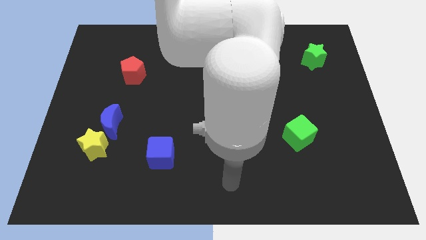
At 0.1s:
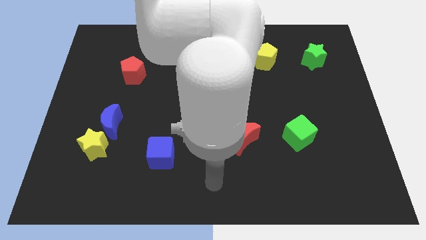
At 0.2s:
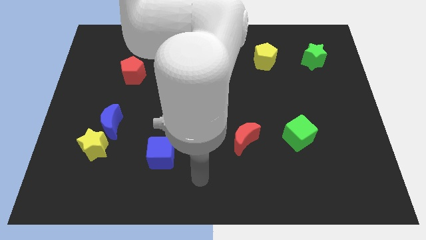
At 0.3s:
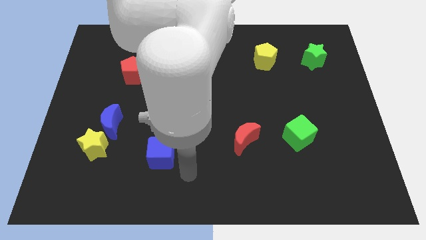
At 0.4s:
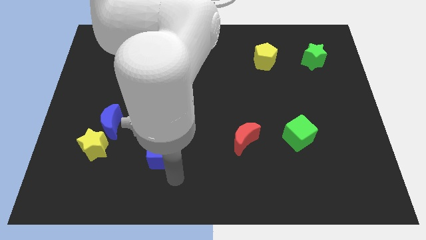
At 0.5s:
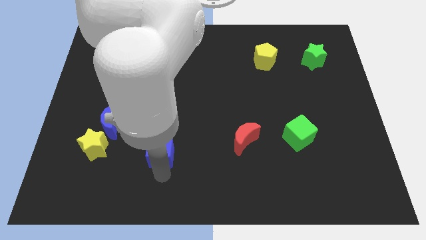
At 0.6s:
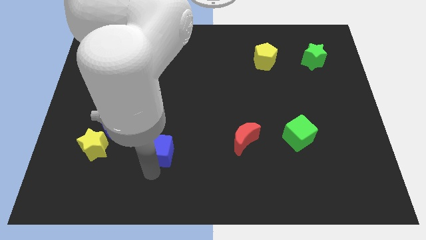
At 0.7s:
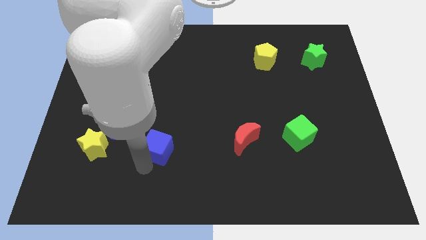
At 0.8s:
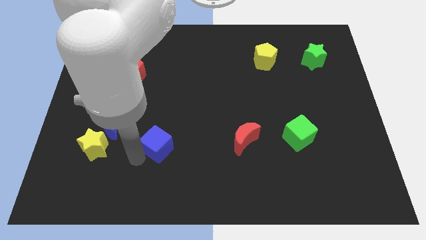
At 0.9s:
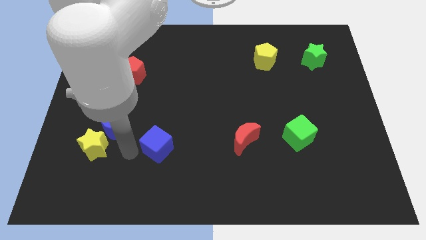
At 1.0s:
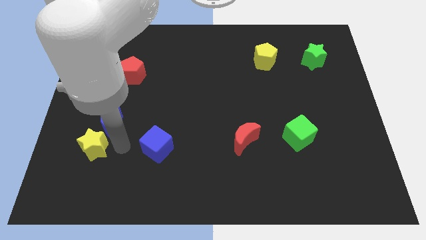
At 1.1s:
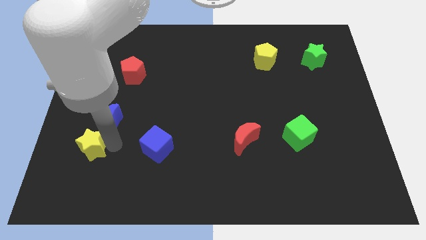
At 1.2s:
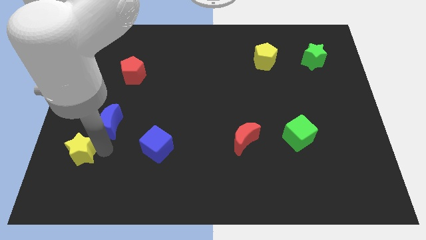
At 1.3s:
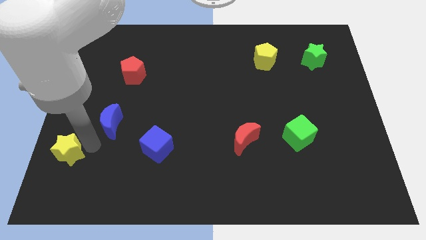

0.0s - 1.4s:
separate the blue moon from the yellow star

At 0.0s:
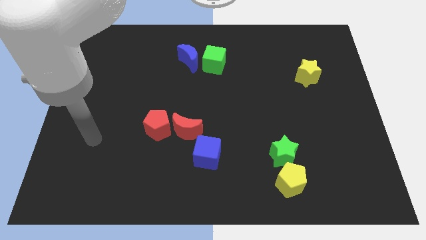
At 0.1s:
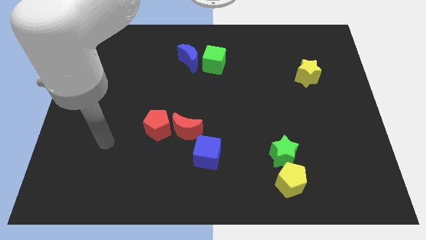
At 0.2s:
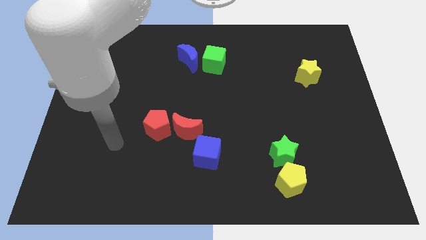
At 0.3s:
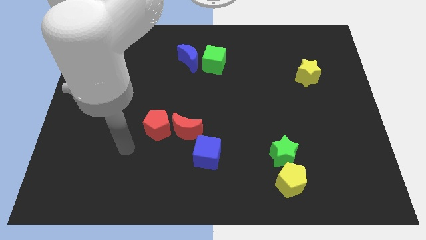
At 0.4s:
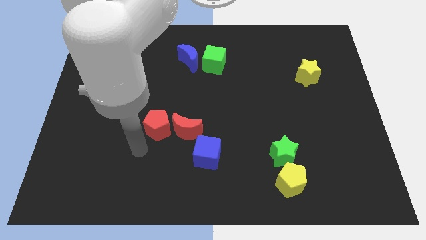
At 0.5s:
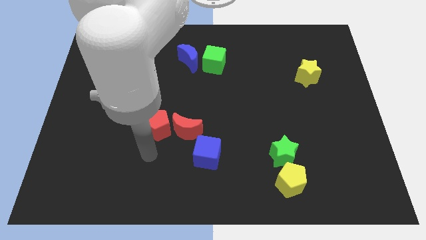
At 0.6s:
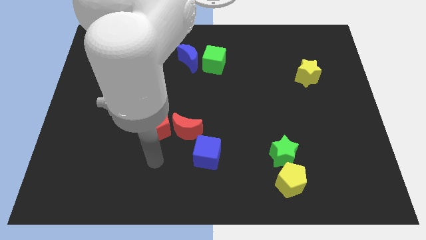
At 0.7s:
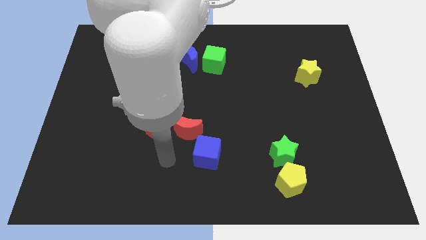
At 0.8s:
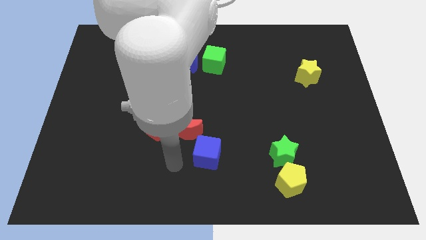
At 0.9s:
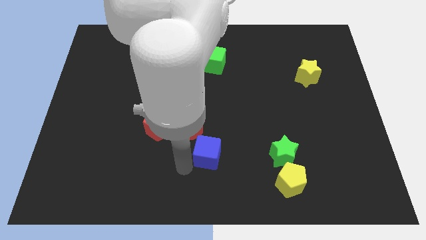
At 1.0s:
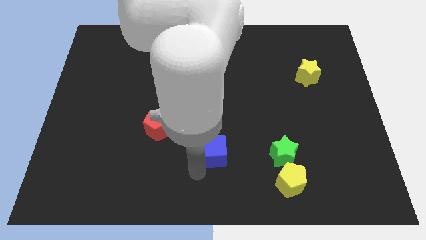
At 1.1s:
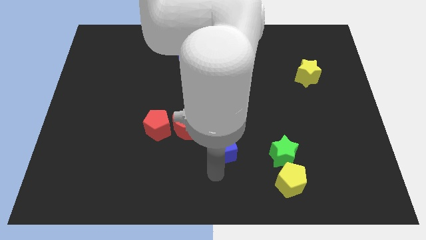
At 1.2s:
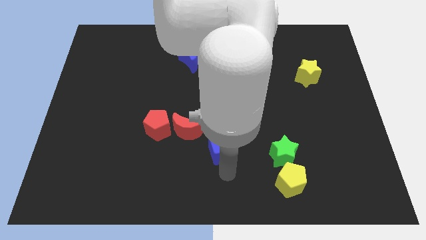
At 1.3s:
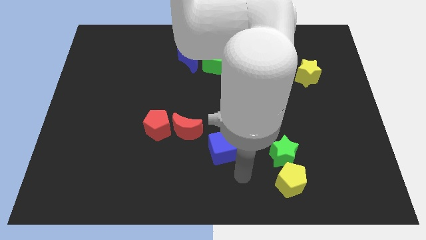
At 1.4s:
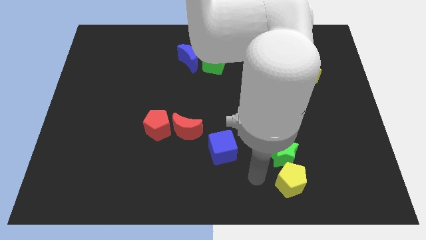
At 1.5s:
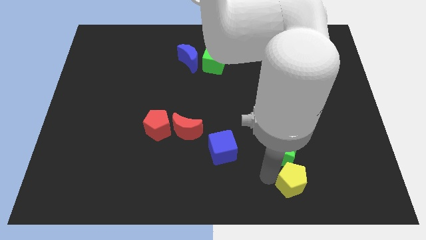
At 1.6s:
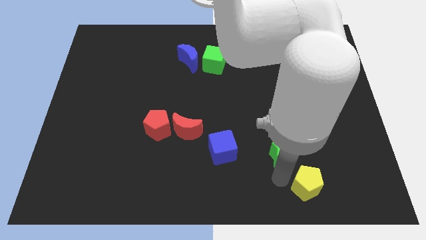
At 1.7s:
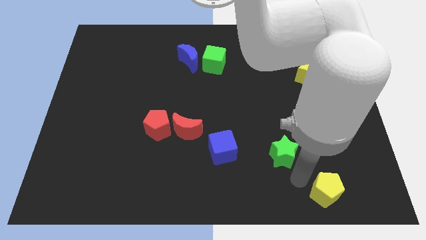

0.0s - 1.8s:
move the green star away from the yellow pentagon

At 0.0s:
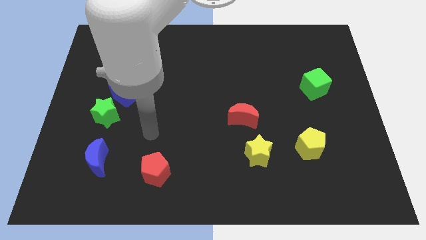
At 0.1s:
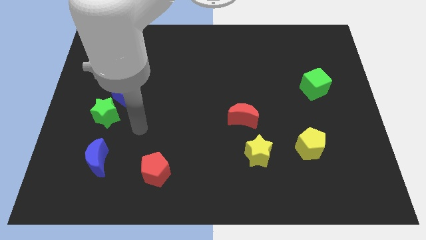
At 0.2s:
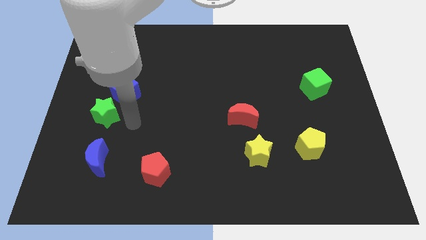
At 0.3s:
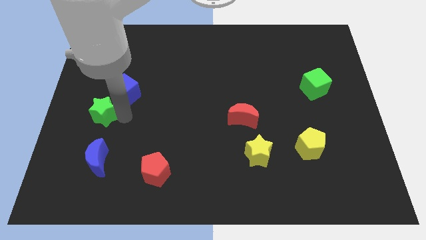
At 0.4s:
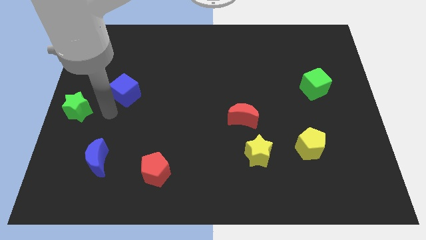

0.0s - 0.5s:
move the blue cube away from the green star

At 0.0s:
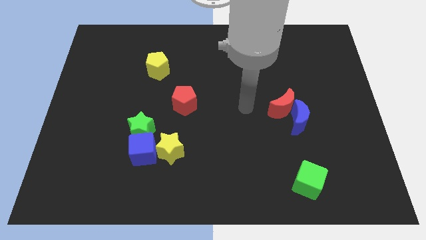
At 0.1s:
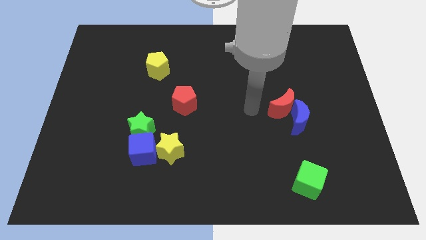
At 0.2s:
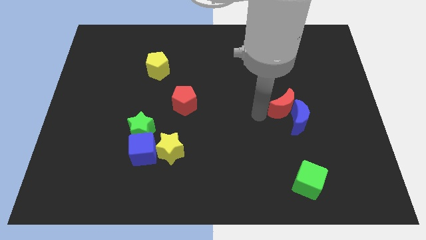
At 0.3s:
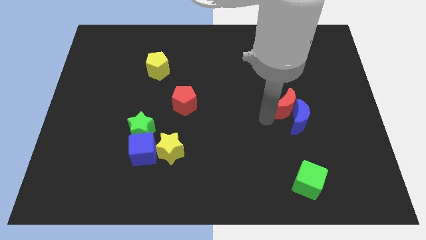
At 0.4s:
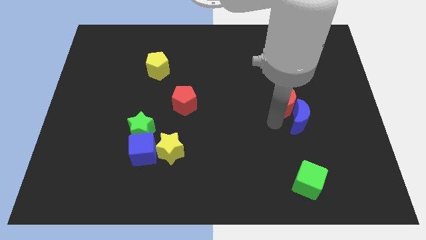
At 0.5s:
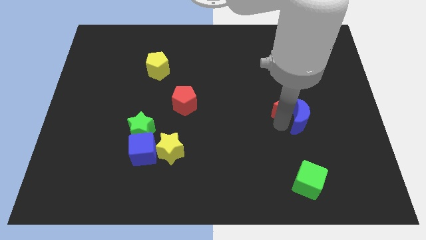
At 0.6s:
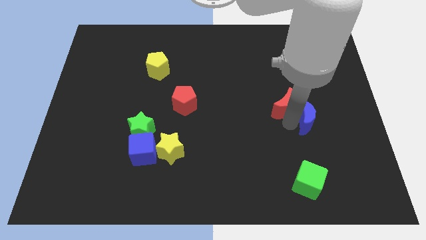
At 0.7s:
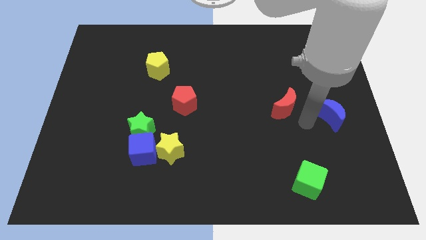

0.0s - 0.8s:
separate the red moon from the blue moon

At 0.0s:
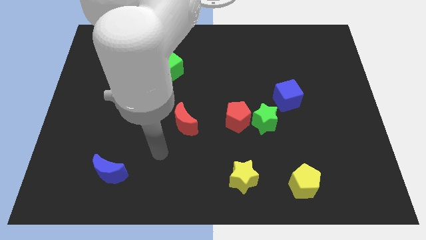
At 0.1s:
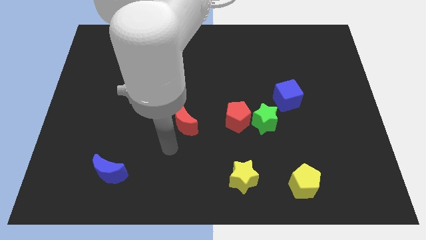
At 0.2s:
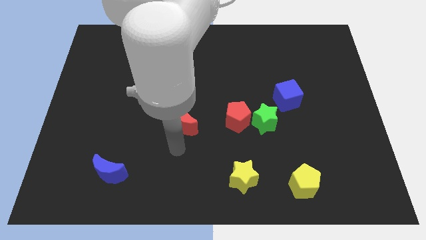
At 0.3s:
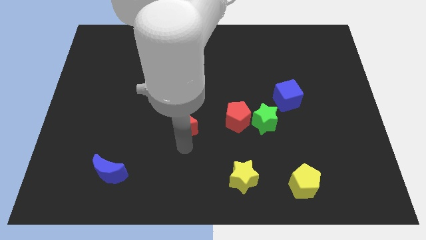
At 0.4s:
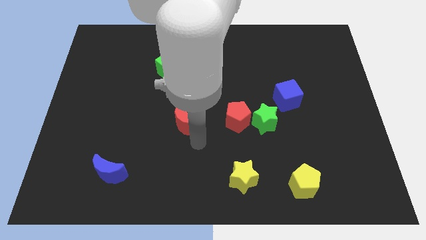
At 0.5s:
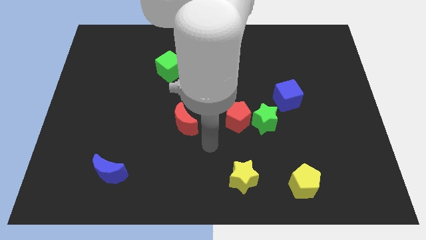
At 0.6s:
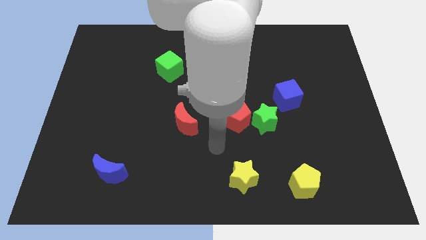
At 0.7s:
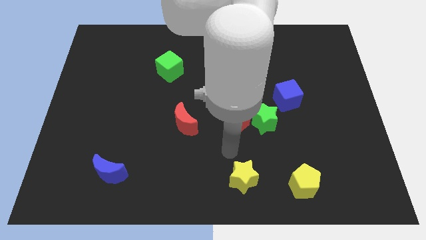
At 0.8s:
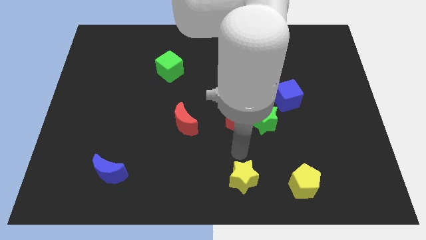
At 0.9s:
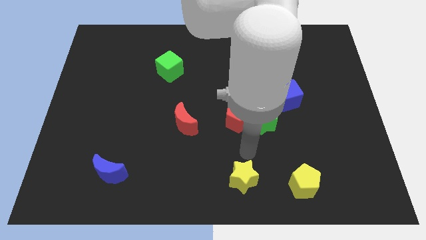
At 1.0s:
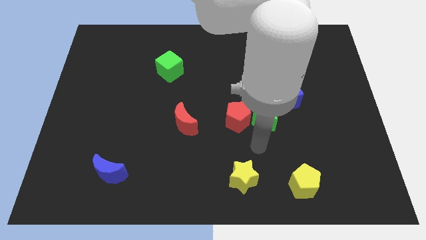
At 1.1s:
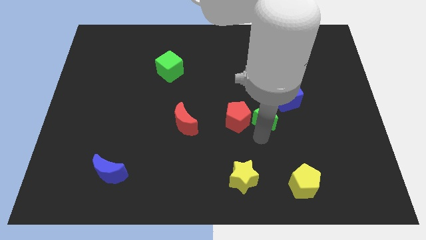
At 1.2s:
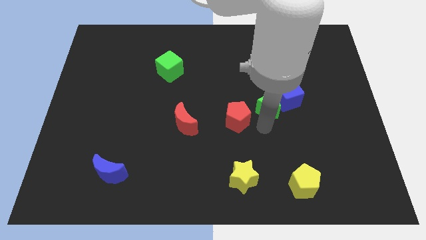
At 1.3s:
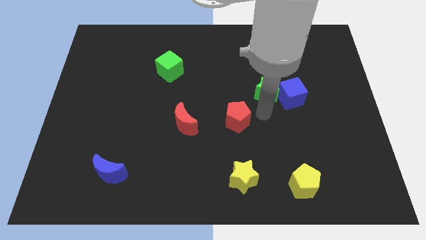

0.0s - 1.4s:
separate the red pentagon from the green star

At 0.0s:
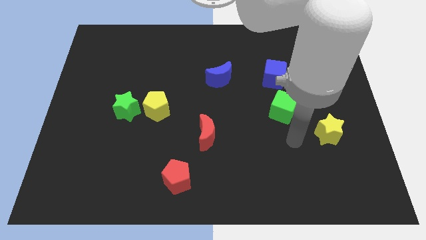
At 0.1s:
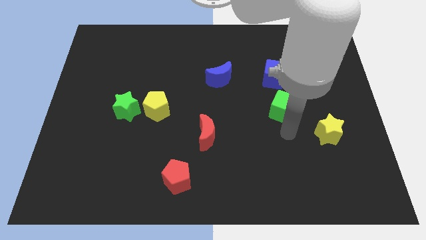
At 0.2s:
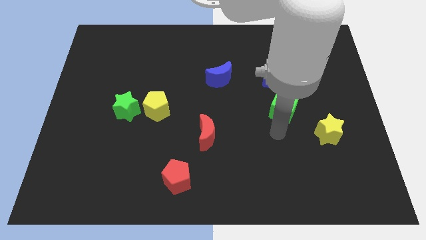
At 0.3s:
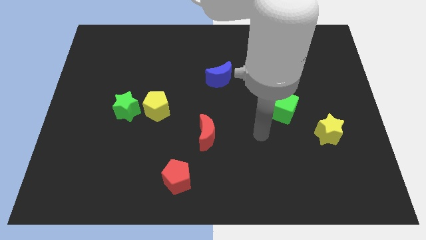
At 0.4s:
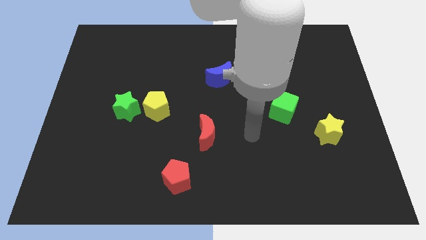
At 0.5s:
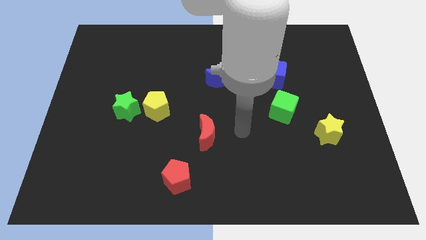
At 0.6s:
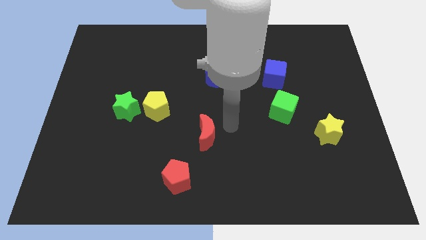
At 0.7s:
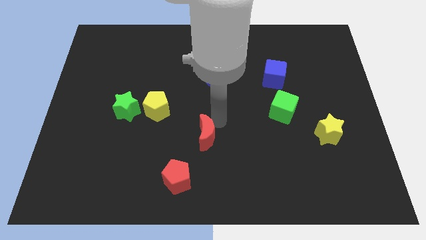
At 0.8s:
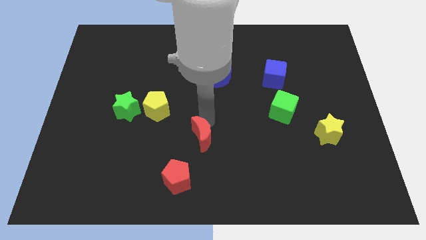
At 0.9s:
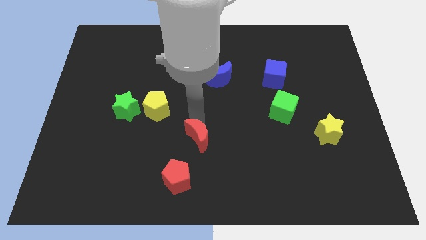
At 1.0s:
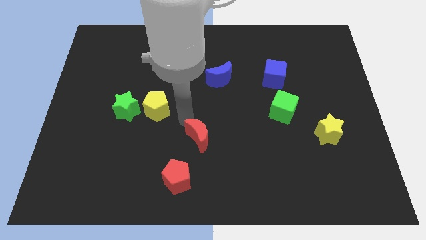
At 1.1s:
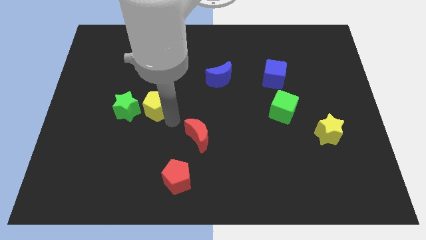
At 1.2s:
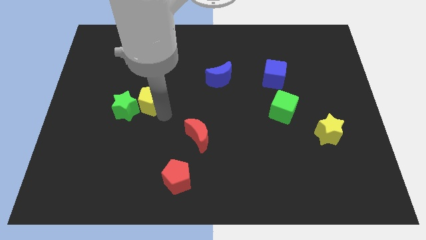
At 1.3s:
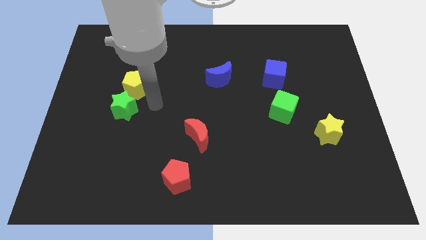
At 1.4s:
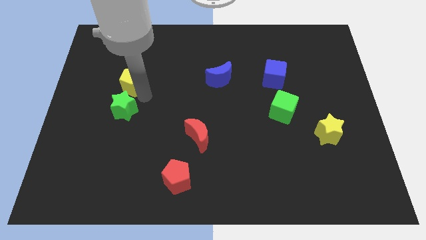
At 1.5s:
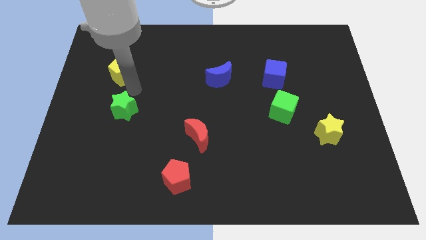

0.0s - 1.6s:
pull the green star apart from the yellow pentagon

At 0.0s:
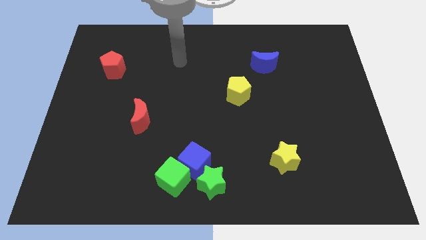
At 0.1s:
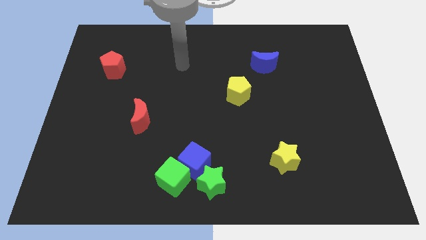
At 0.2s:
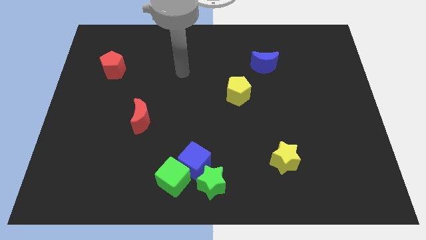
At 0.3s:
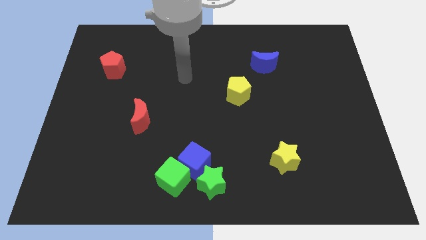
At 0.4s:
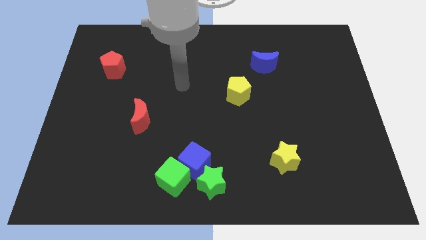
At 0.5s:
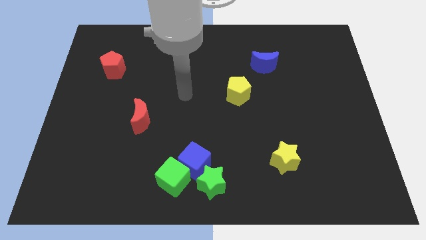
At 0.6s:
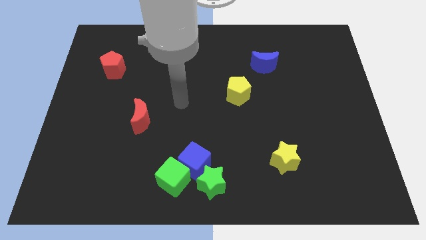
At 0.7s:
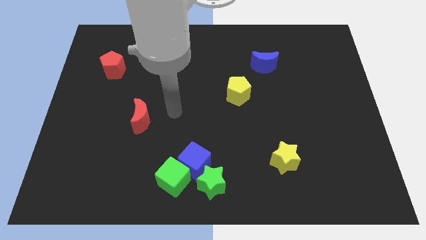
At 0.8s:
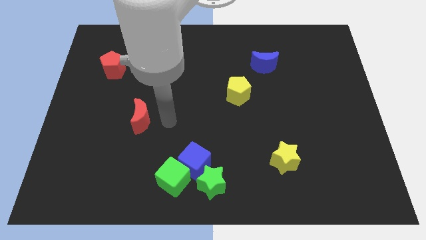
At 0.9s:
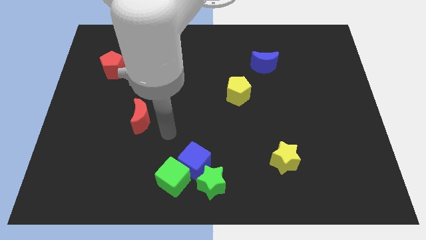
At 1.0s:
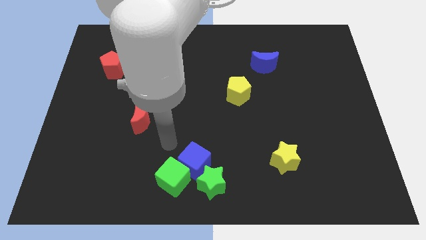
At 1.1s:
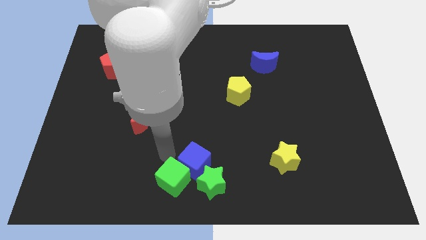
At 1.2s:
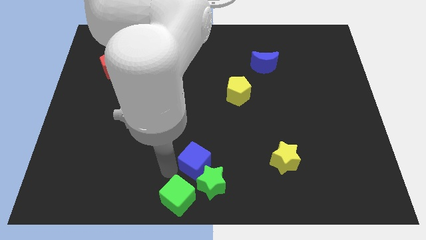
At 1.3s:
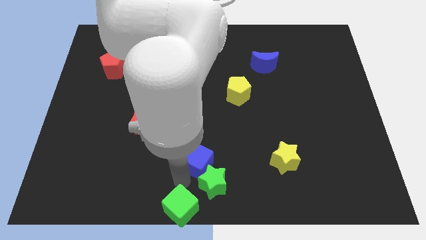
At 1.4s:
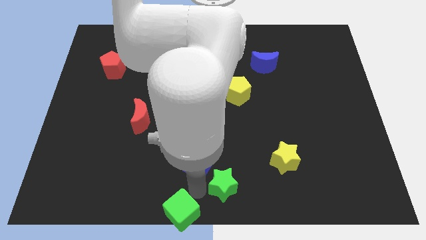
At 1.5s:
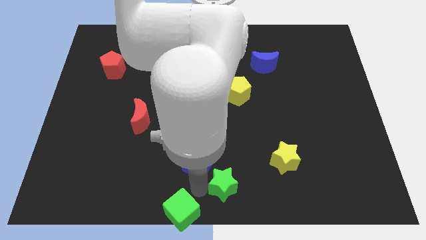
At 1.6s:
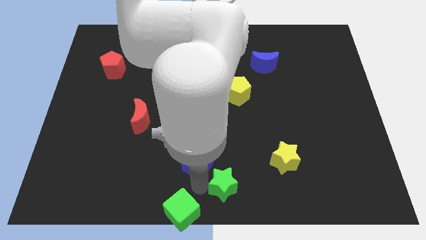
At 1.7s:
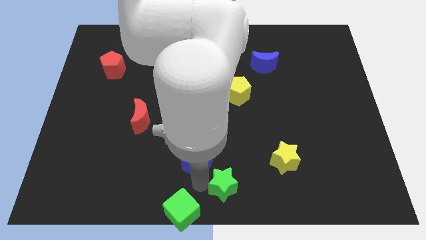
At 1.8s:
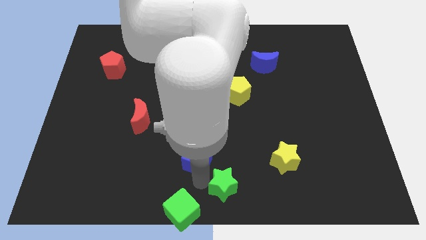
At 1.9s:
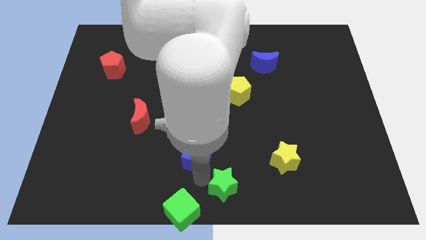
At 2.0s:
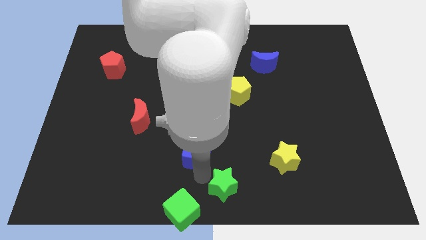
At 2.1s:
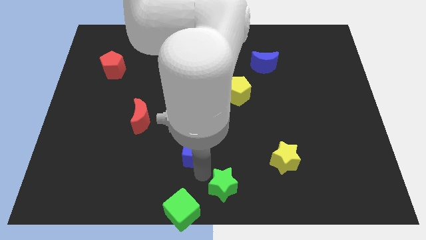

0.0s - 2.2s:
pull the blue cube apart from the green cube and green star
